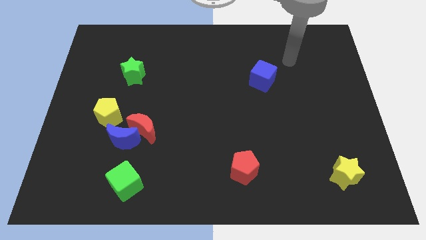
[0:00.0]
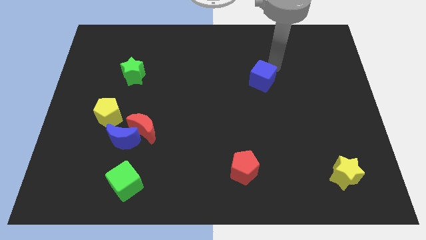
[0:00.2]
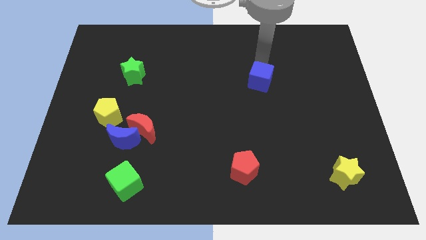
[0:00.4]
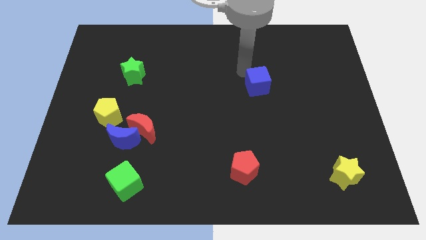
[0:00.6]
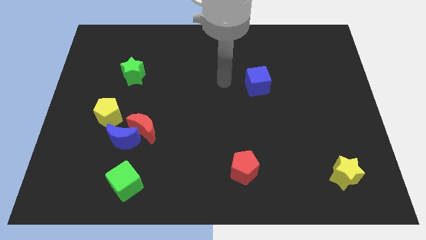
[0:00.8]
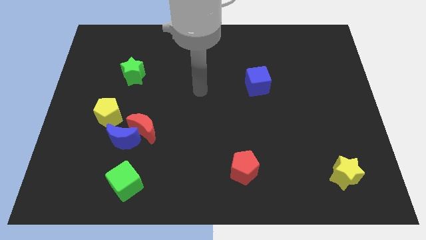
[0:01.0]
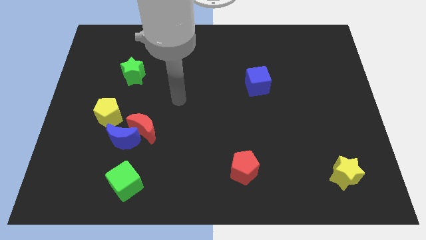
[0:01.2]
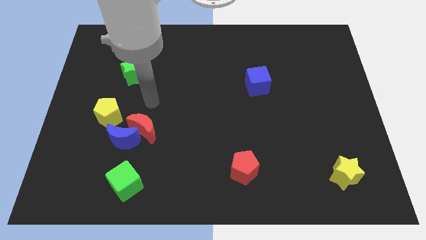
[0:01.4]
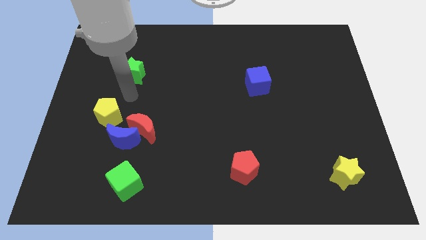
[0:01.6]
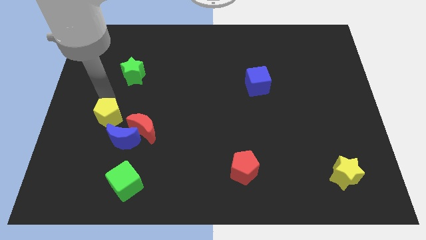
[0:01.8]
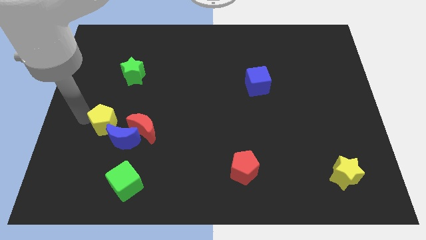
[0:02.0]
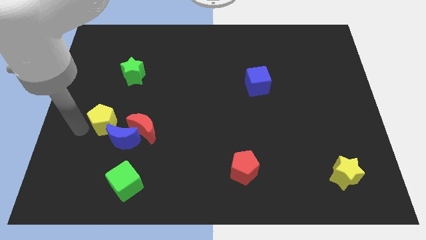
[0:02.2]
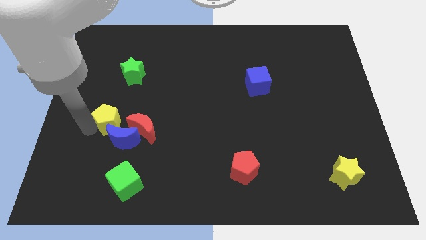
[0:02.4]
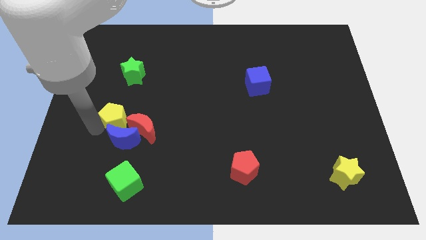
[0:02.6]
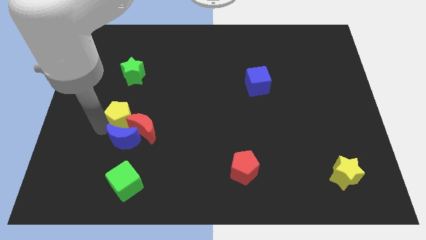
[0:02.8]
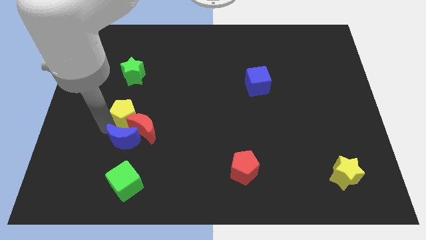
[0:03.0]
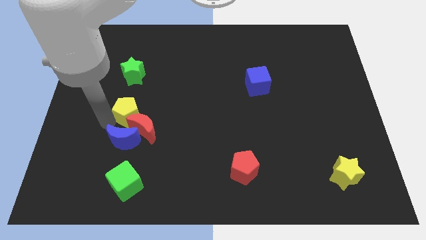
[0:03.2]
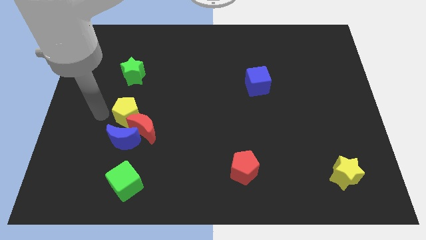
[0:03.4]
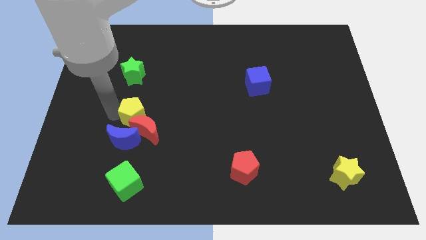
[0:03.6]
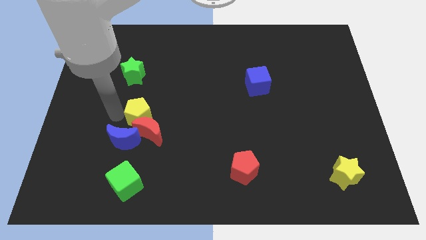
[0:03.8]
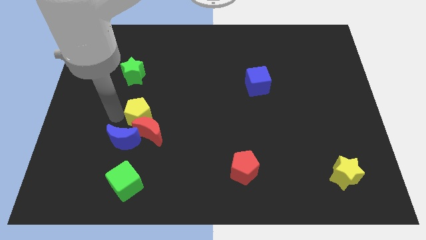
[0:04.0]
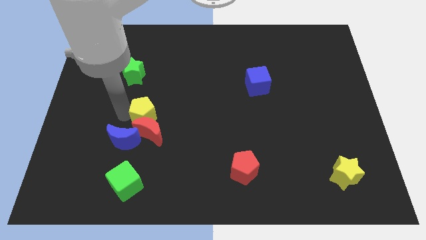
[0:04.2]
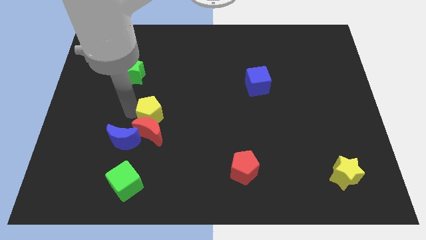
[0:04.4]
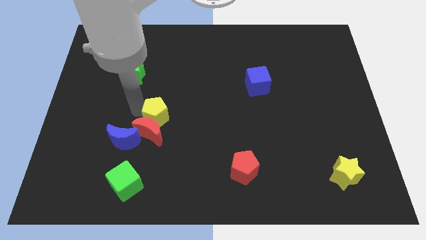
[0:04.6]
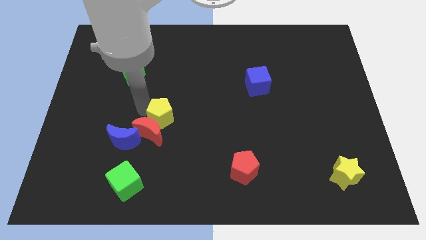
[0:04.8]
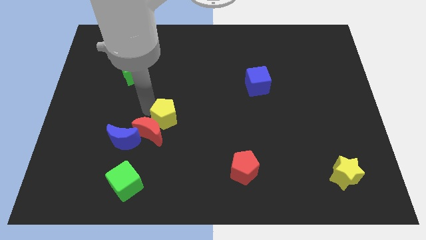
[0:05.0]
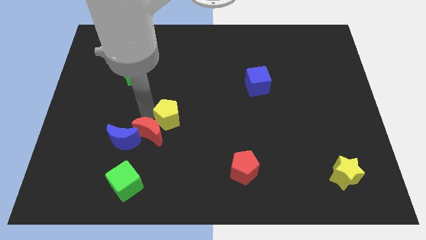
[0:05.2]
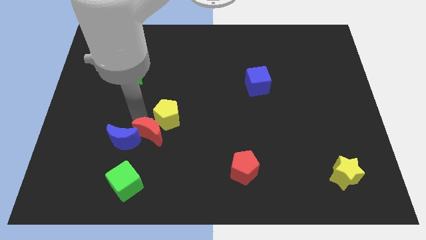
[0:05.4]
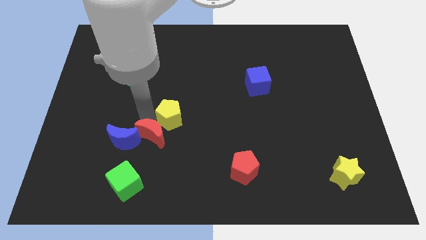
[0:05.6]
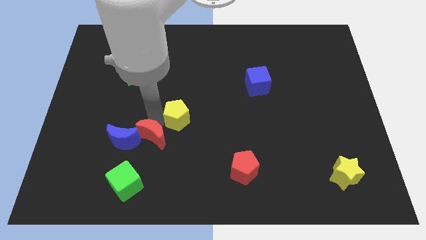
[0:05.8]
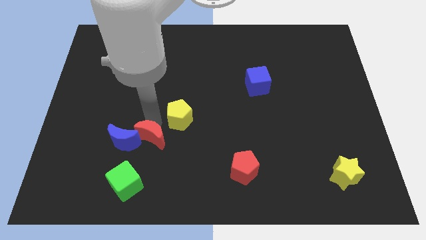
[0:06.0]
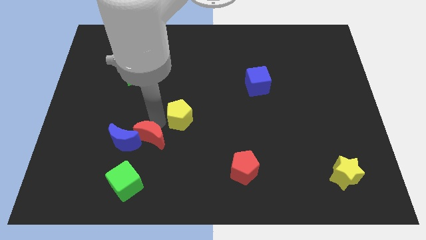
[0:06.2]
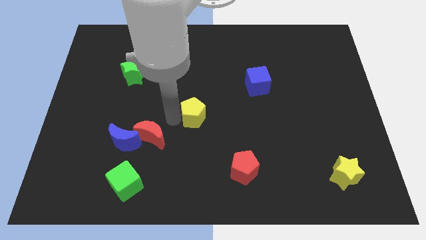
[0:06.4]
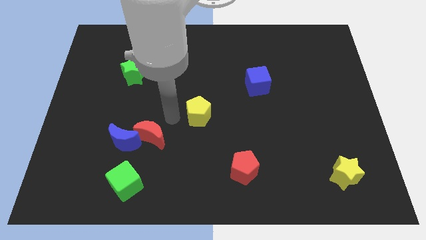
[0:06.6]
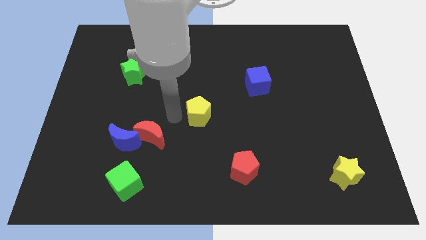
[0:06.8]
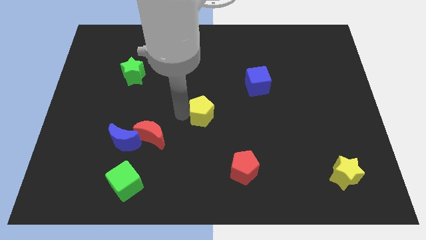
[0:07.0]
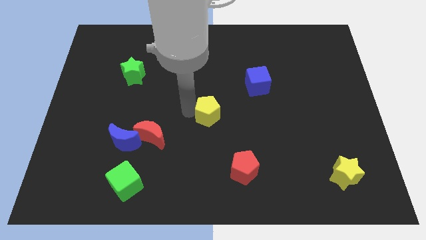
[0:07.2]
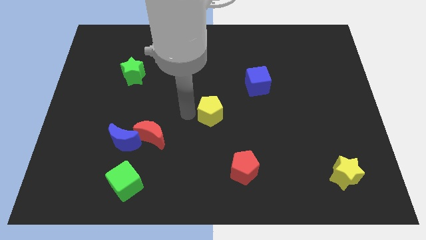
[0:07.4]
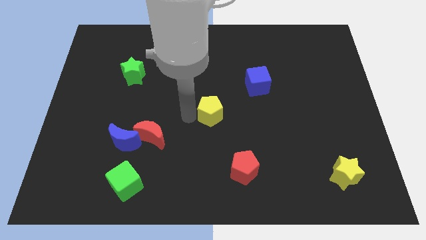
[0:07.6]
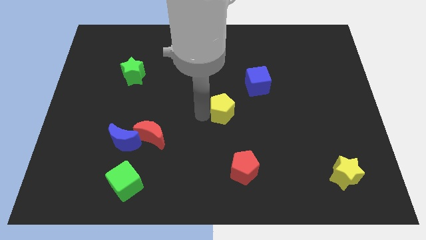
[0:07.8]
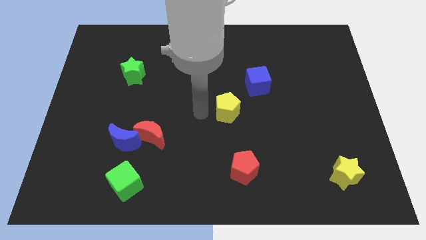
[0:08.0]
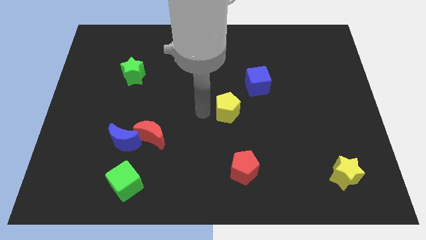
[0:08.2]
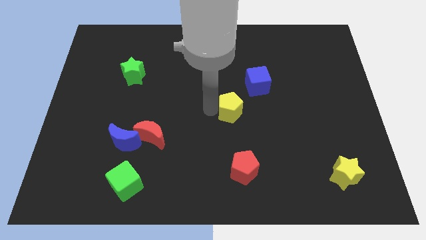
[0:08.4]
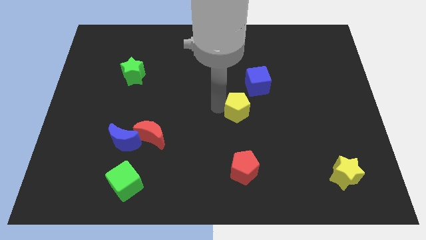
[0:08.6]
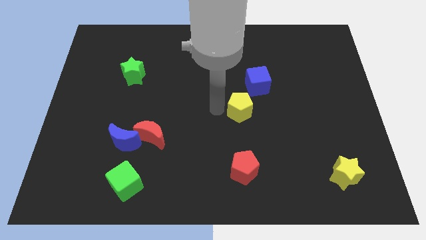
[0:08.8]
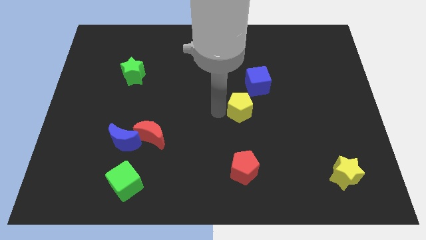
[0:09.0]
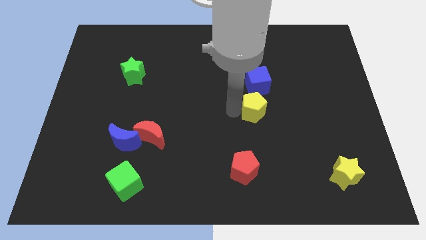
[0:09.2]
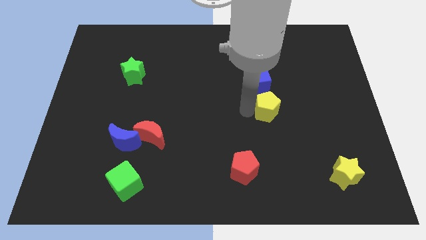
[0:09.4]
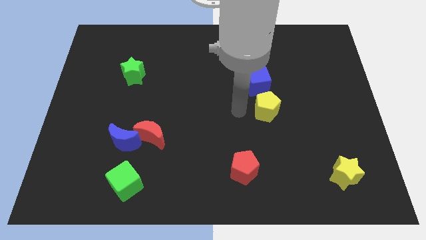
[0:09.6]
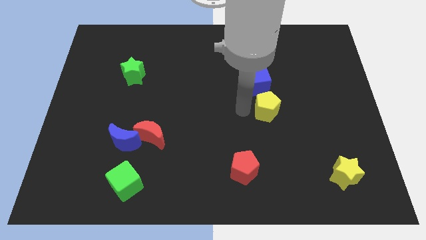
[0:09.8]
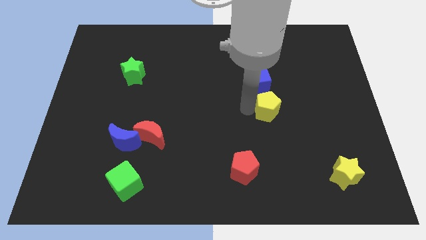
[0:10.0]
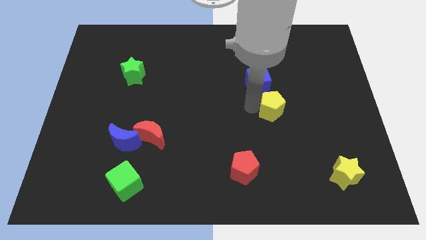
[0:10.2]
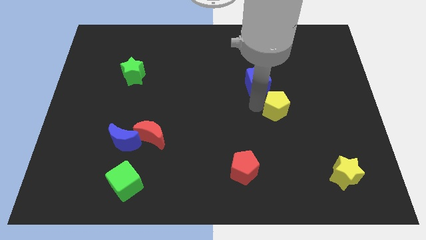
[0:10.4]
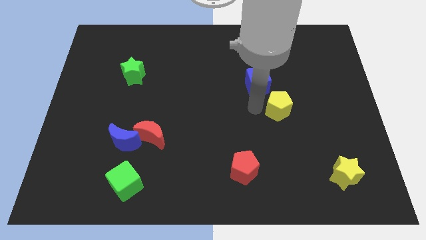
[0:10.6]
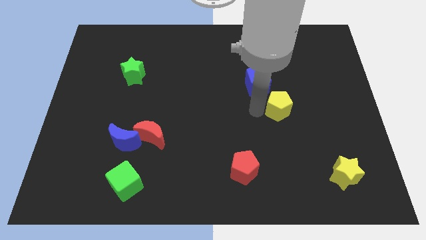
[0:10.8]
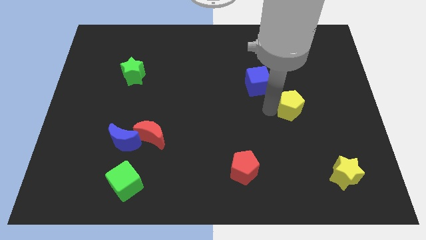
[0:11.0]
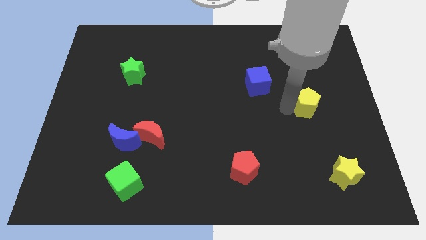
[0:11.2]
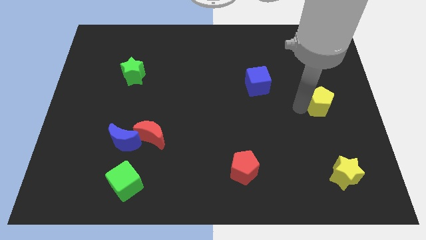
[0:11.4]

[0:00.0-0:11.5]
slide the yellow pentagon to the right side
